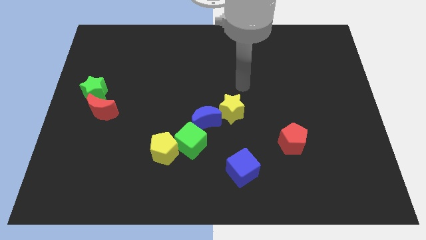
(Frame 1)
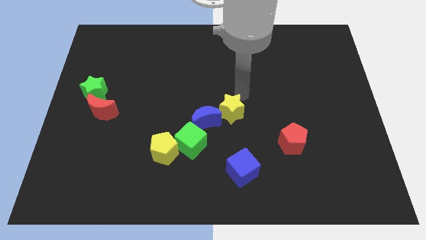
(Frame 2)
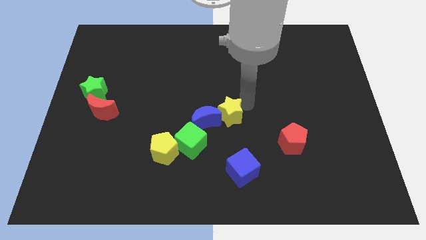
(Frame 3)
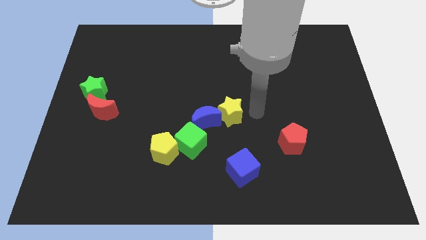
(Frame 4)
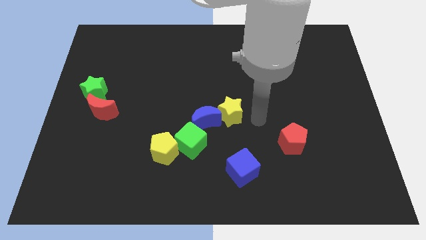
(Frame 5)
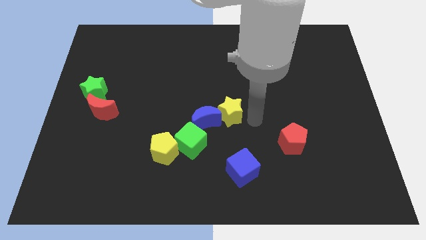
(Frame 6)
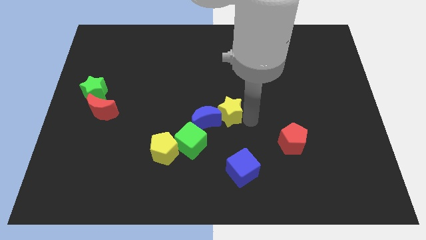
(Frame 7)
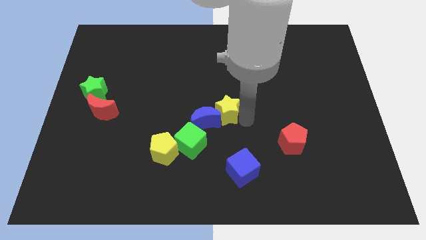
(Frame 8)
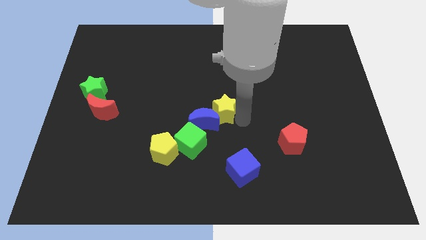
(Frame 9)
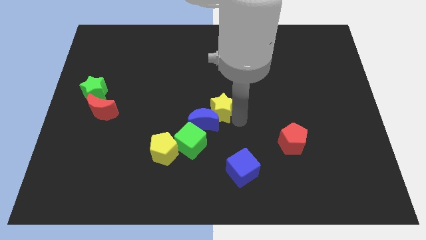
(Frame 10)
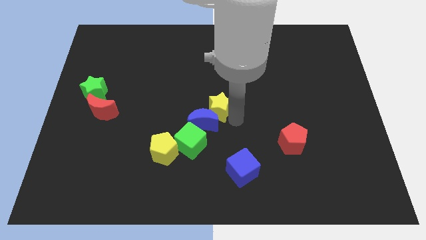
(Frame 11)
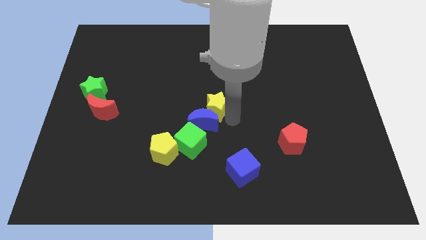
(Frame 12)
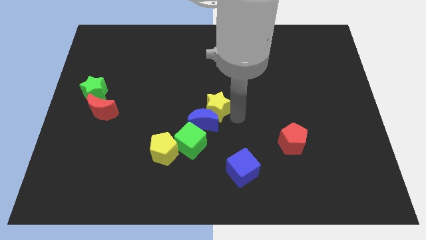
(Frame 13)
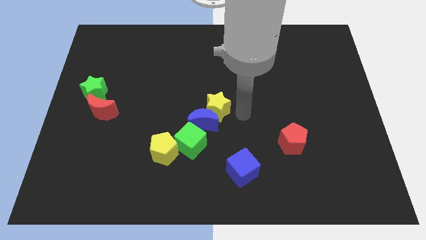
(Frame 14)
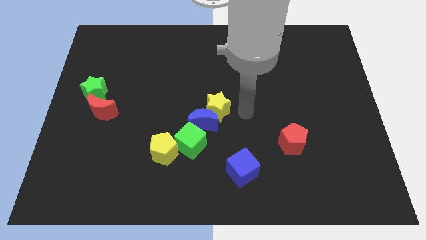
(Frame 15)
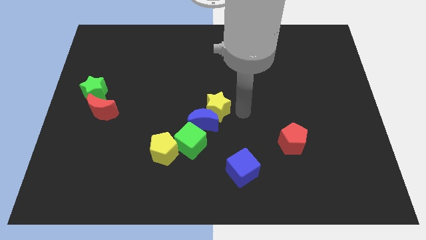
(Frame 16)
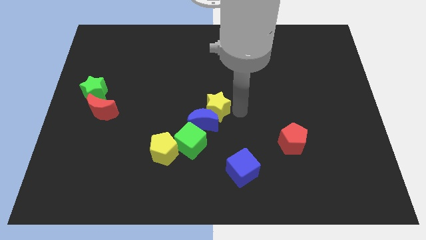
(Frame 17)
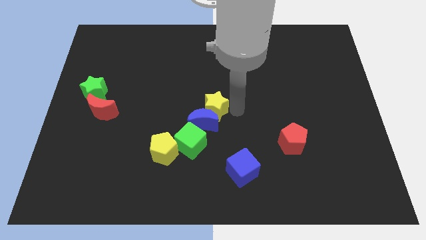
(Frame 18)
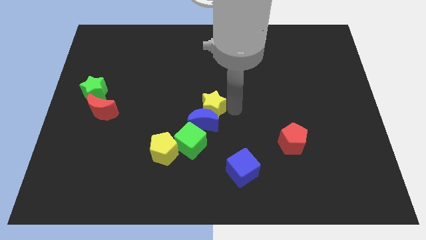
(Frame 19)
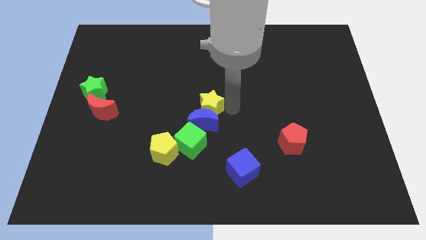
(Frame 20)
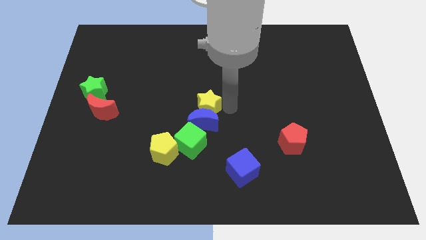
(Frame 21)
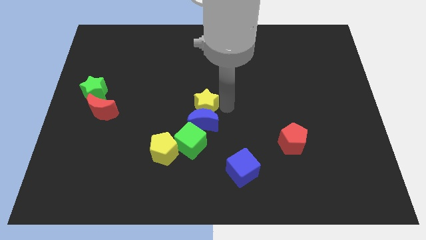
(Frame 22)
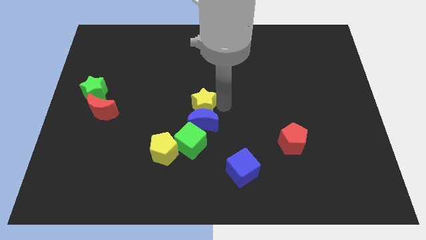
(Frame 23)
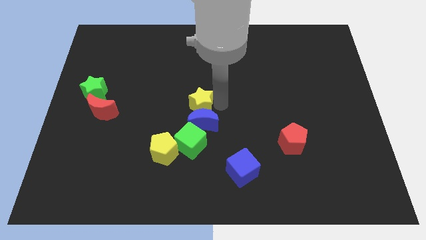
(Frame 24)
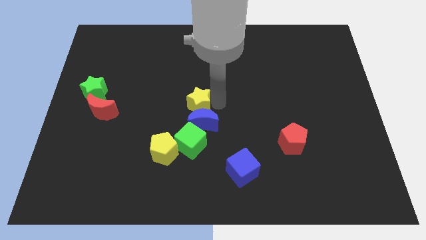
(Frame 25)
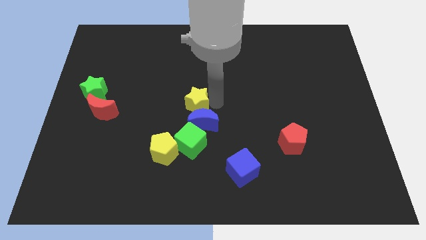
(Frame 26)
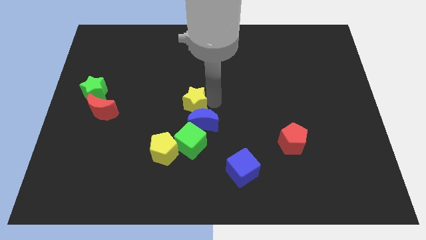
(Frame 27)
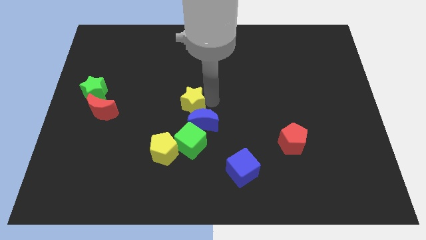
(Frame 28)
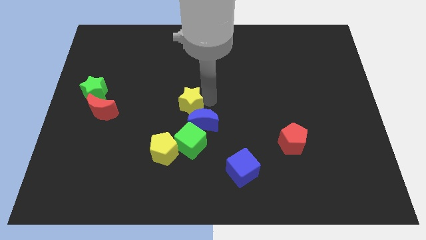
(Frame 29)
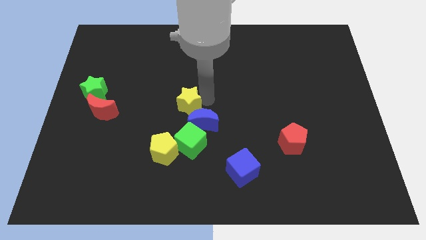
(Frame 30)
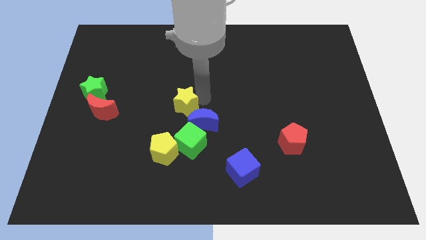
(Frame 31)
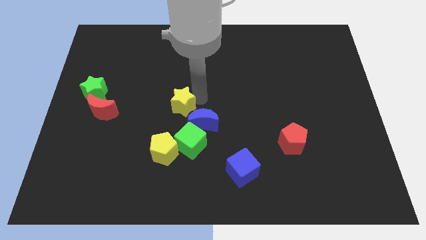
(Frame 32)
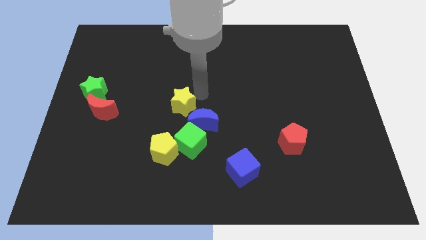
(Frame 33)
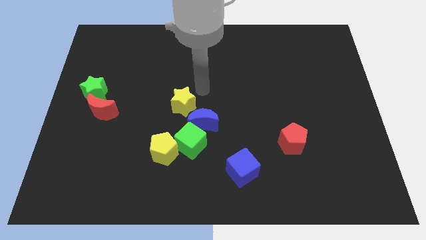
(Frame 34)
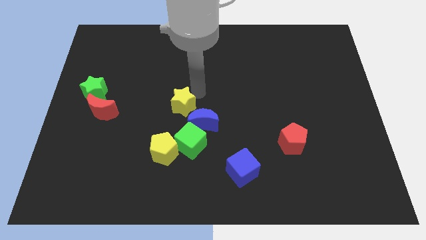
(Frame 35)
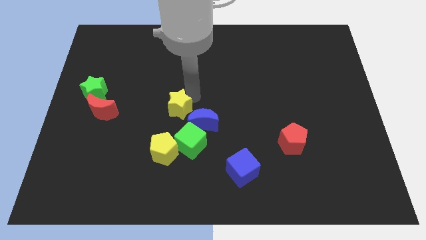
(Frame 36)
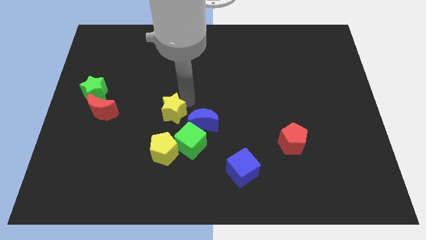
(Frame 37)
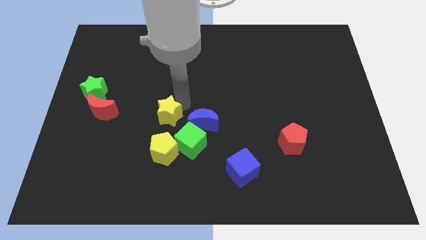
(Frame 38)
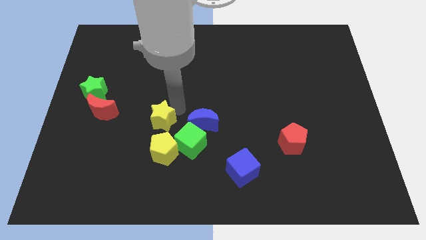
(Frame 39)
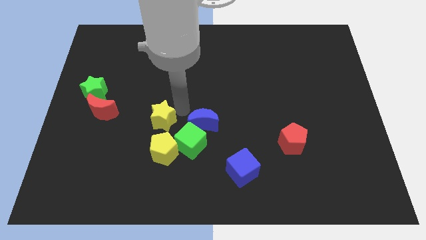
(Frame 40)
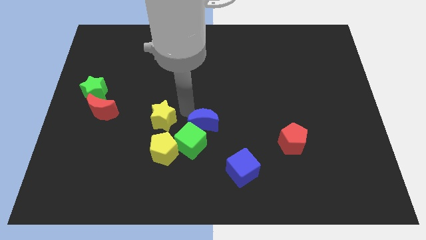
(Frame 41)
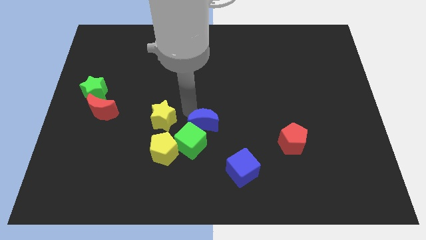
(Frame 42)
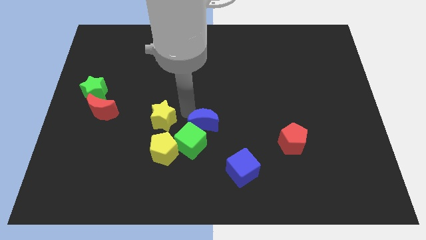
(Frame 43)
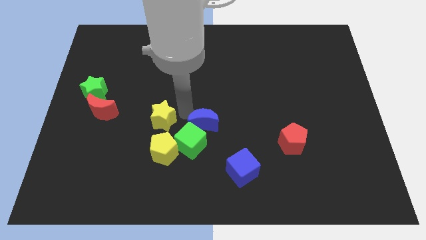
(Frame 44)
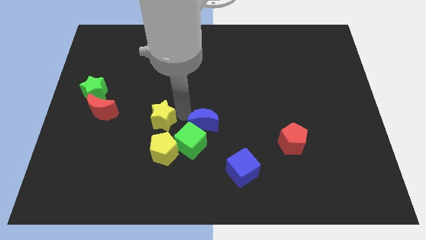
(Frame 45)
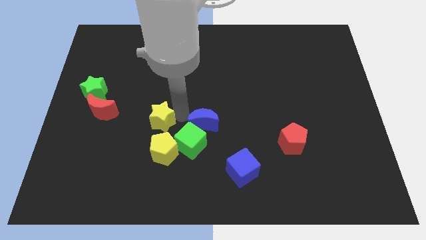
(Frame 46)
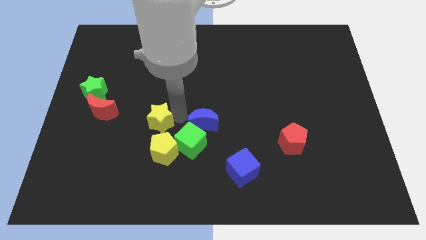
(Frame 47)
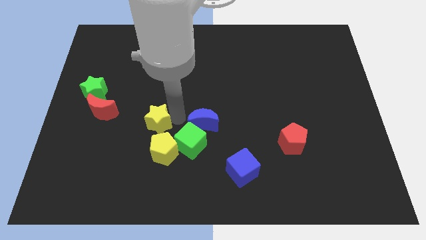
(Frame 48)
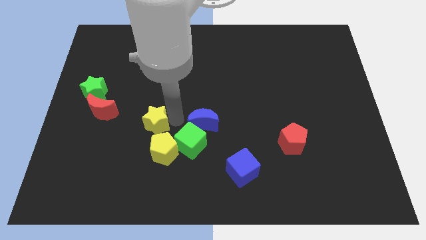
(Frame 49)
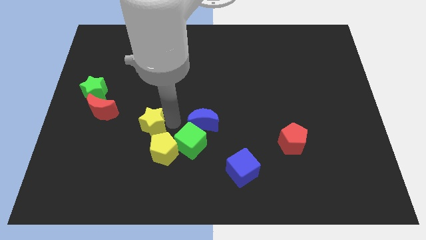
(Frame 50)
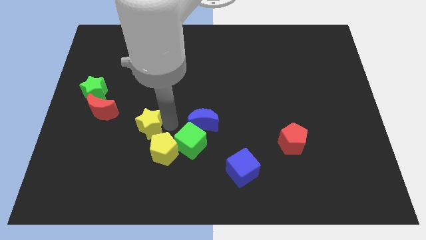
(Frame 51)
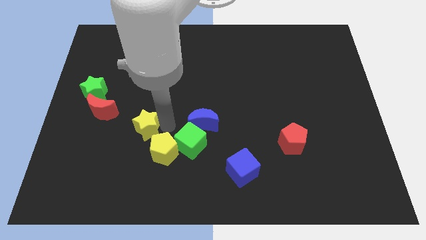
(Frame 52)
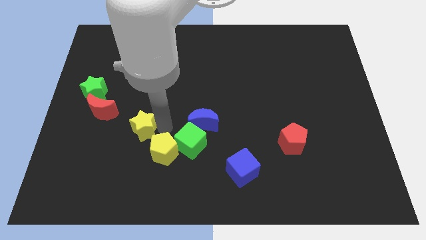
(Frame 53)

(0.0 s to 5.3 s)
move the yellow star diagonally down and to the right of the red moon

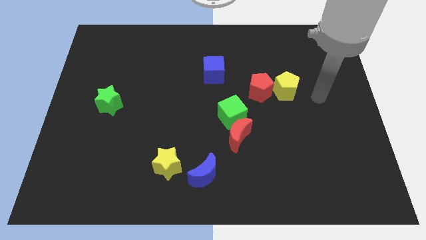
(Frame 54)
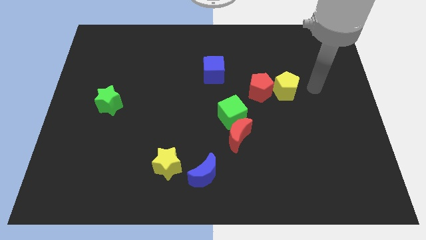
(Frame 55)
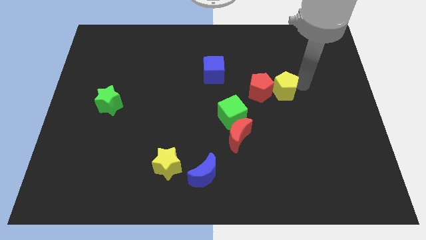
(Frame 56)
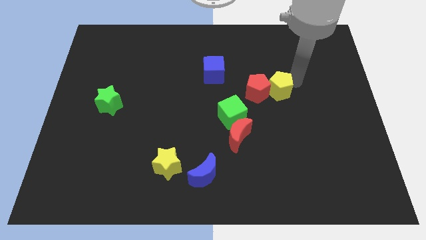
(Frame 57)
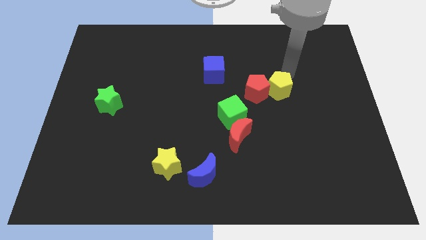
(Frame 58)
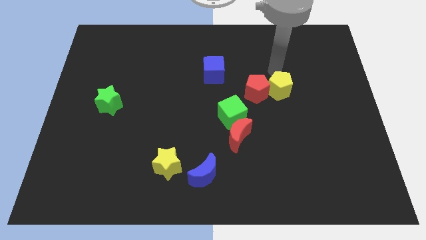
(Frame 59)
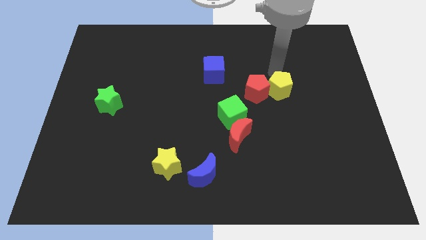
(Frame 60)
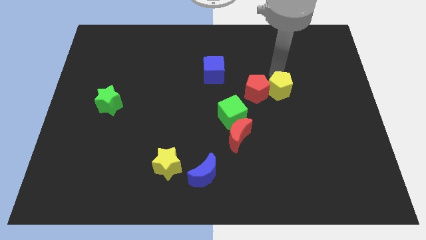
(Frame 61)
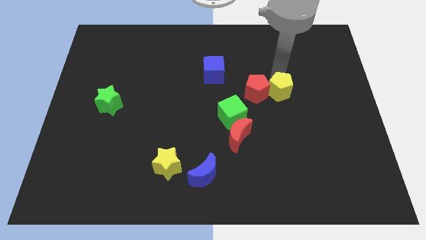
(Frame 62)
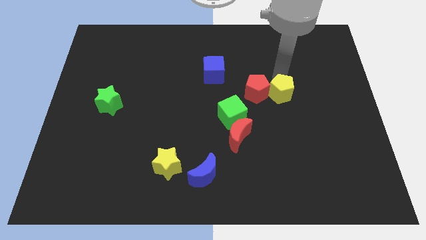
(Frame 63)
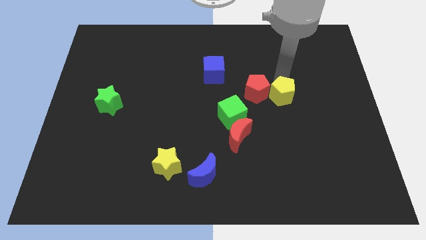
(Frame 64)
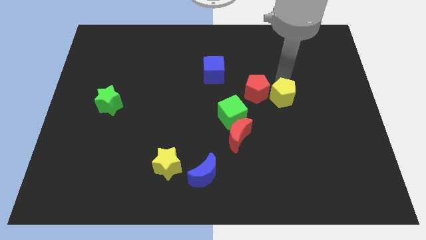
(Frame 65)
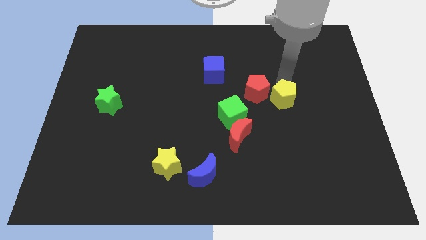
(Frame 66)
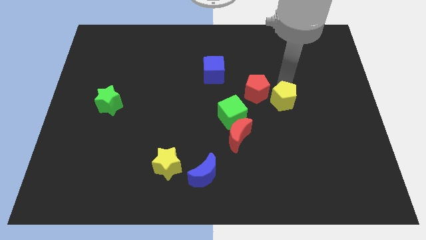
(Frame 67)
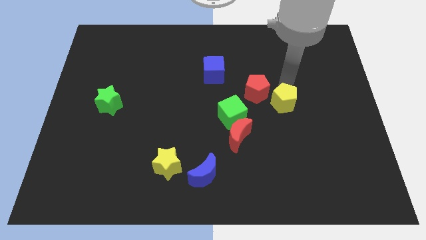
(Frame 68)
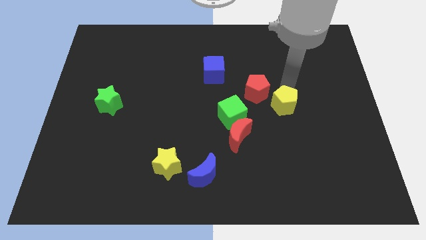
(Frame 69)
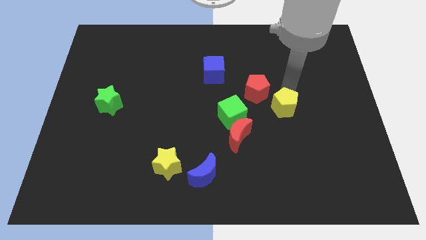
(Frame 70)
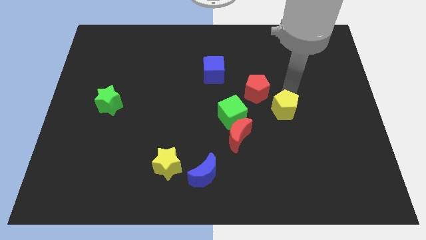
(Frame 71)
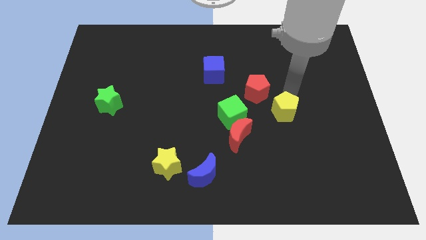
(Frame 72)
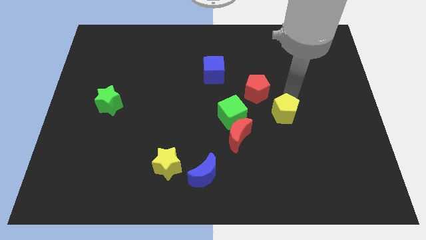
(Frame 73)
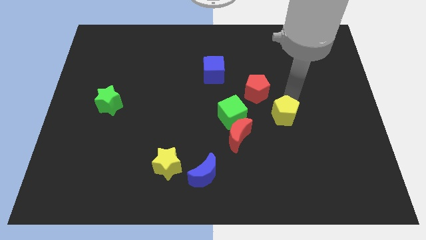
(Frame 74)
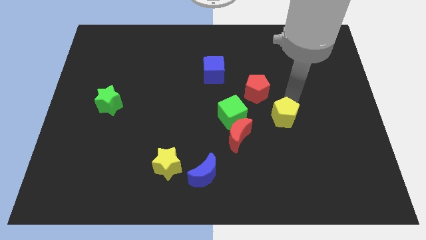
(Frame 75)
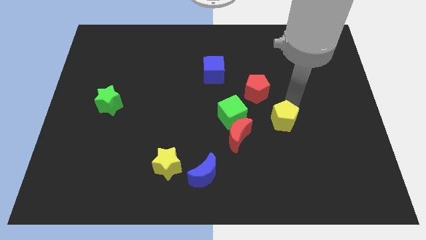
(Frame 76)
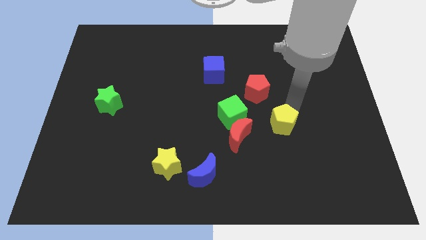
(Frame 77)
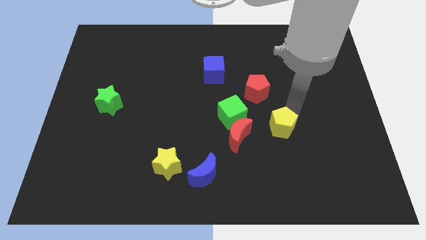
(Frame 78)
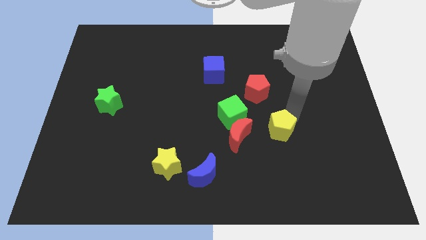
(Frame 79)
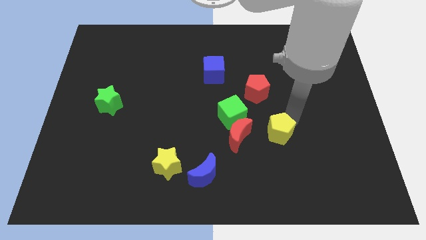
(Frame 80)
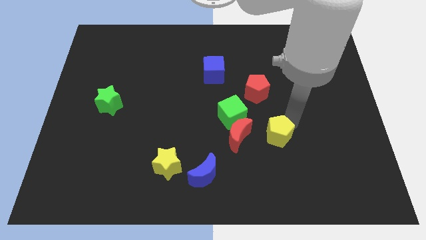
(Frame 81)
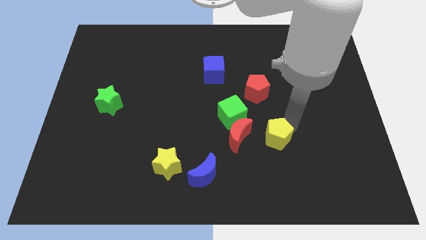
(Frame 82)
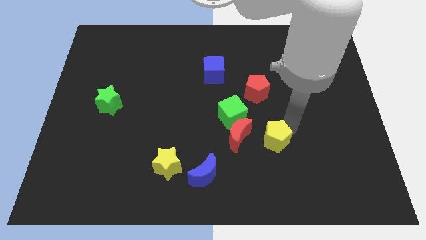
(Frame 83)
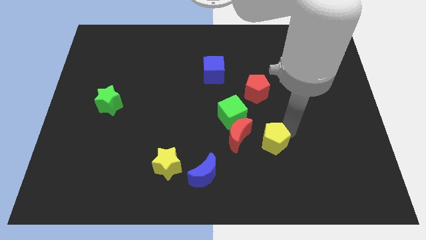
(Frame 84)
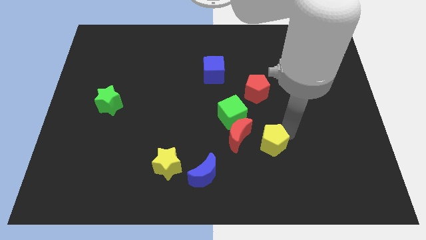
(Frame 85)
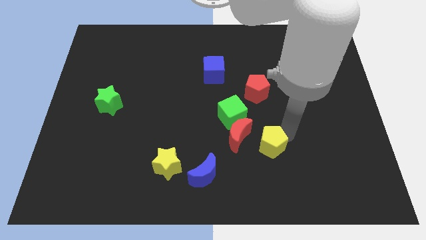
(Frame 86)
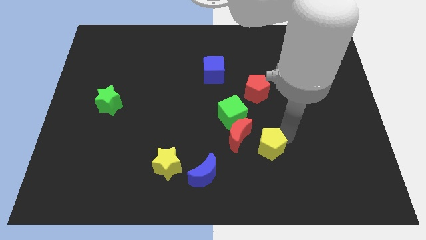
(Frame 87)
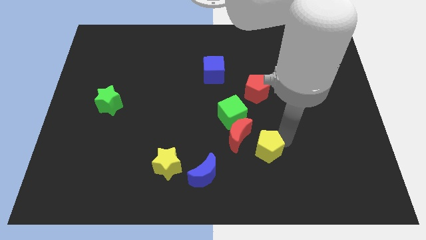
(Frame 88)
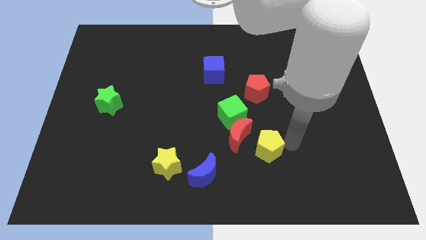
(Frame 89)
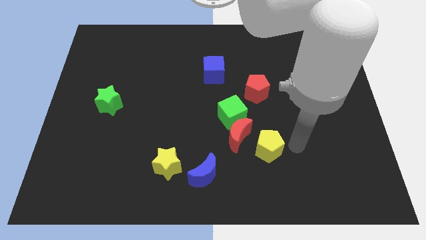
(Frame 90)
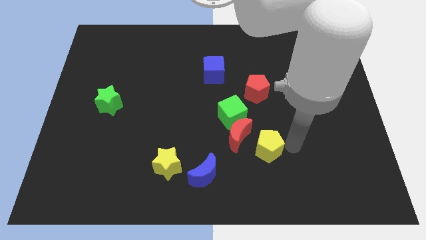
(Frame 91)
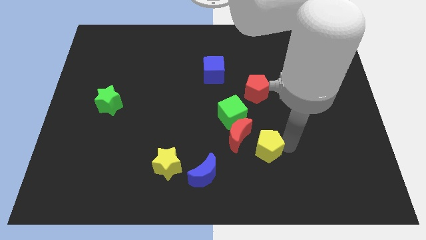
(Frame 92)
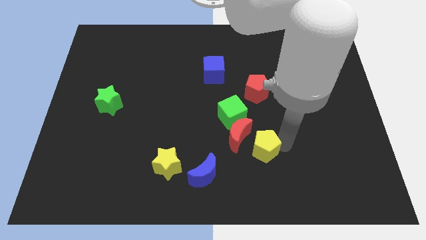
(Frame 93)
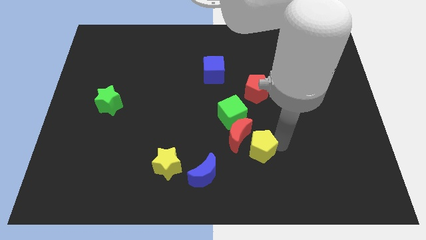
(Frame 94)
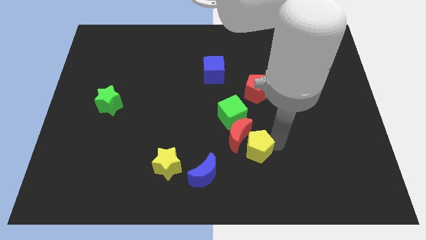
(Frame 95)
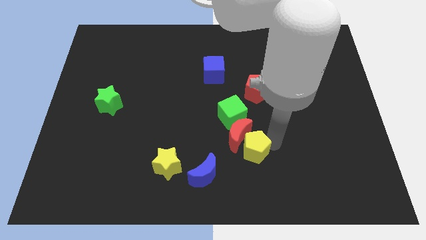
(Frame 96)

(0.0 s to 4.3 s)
push the yellow pentagon to the top right side of the blue moon
